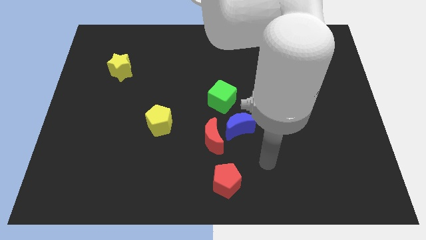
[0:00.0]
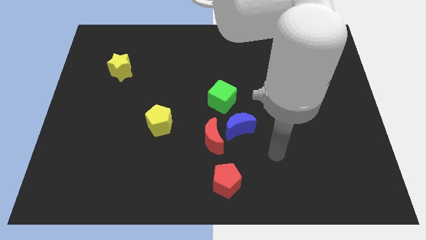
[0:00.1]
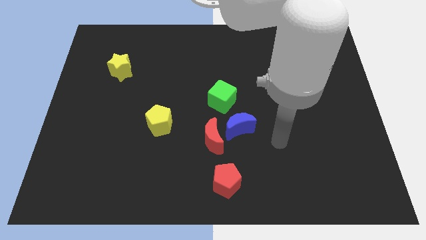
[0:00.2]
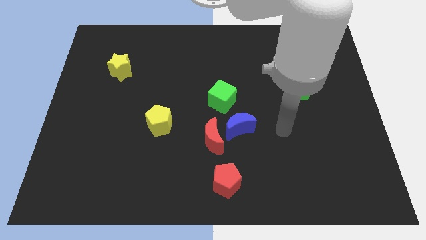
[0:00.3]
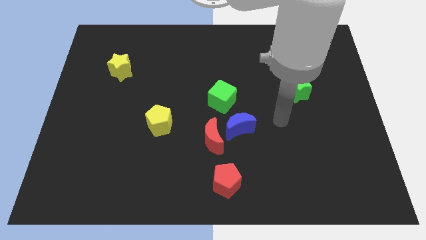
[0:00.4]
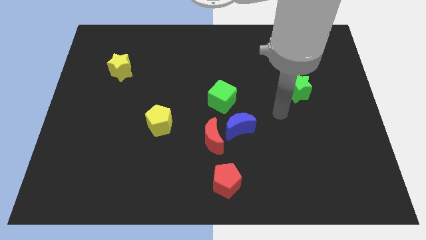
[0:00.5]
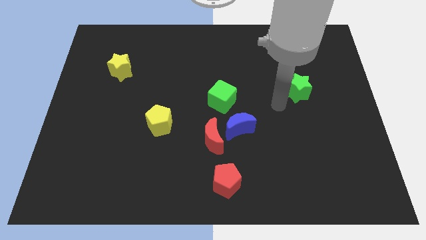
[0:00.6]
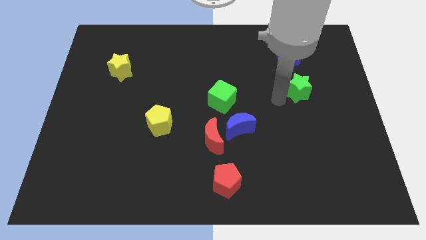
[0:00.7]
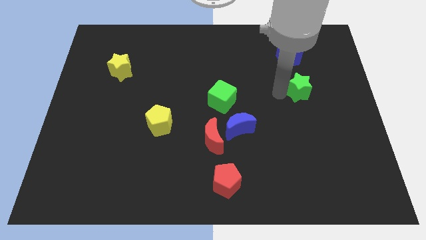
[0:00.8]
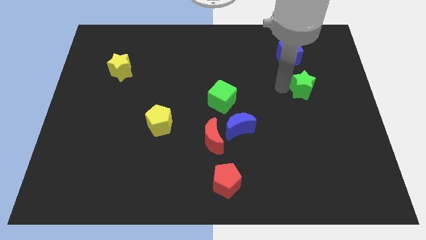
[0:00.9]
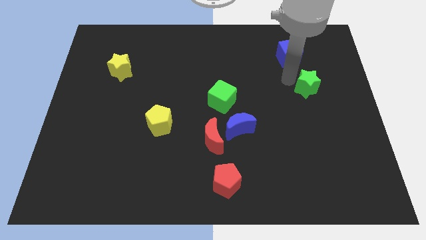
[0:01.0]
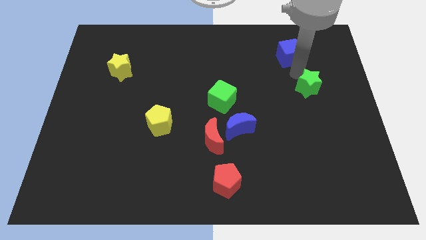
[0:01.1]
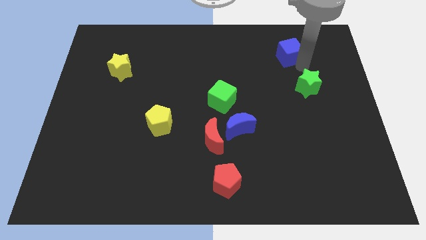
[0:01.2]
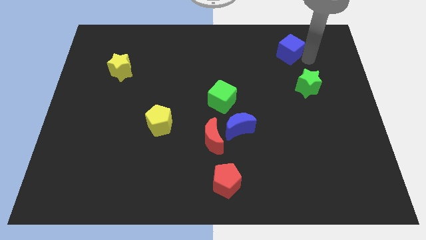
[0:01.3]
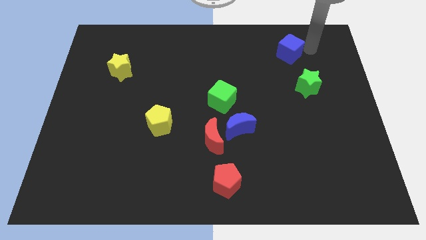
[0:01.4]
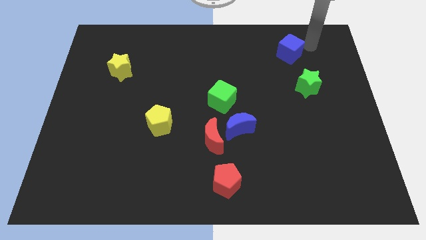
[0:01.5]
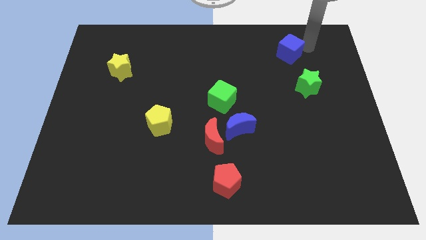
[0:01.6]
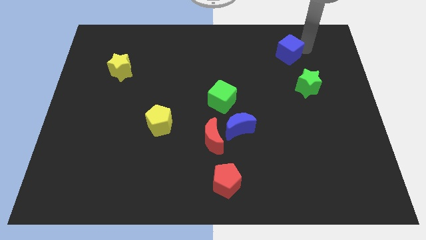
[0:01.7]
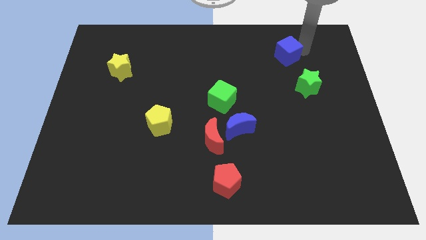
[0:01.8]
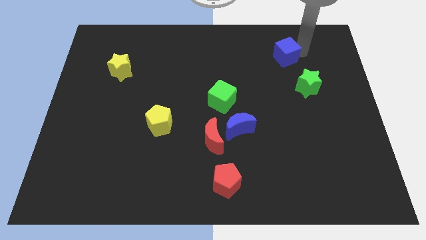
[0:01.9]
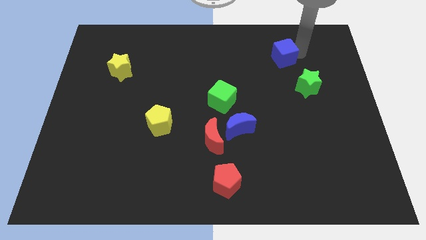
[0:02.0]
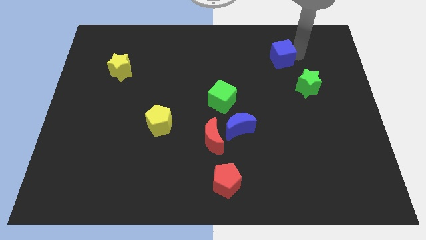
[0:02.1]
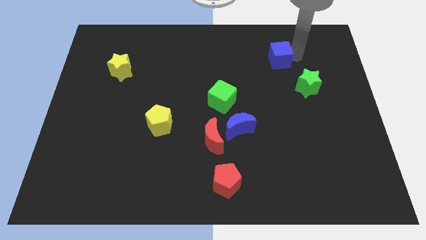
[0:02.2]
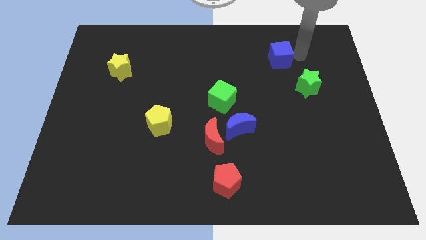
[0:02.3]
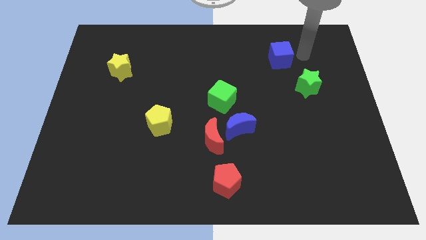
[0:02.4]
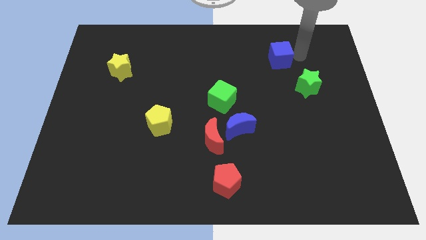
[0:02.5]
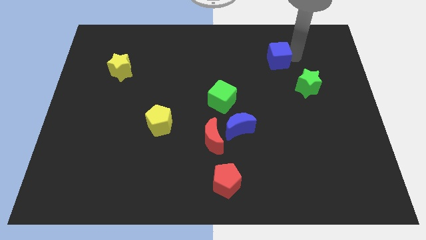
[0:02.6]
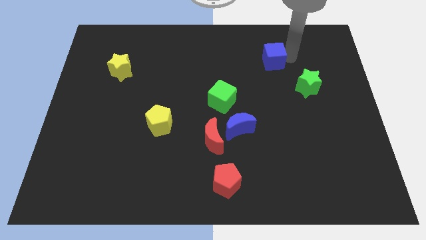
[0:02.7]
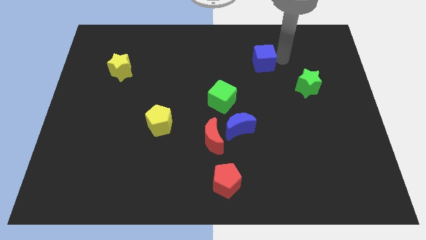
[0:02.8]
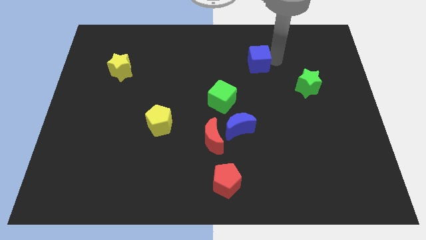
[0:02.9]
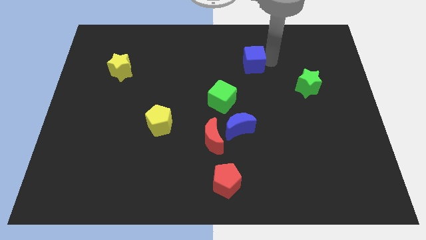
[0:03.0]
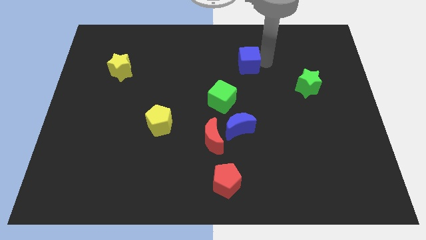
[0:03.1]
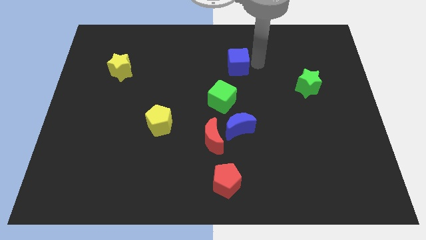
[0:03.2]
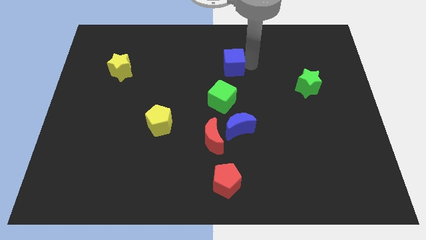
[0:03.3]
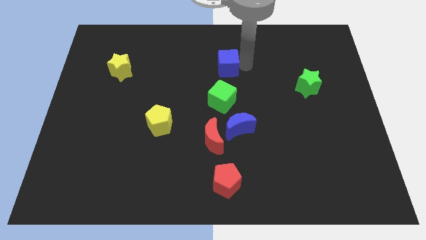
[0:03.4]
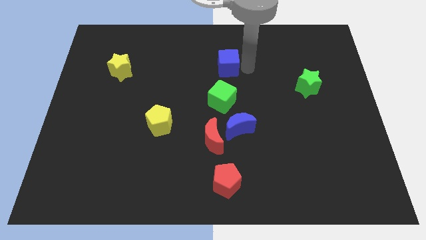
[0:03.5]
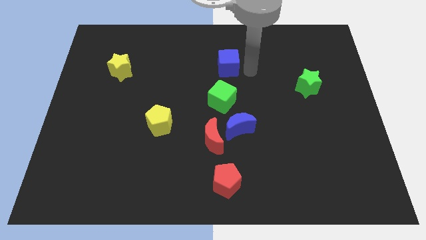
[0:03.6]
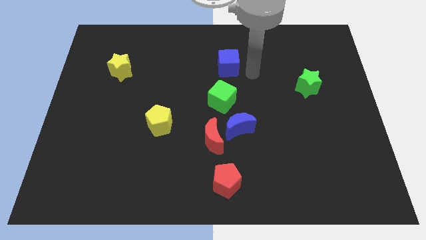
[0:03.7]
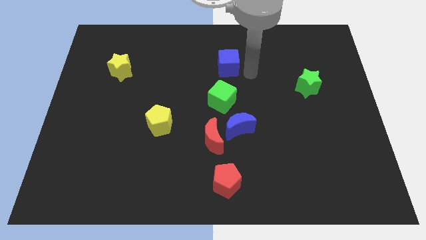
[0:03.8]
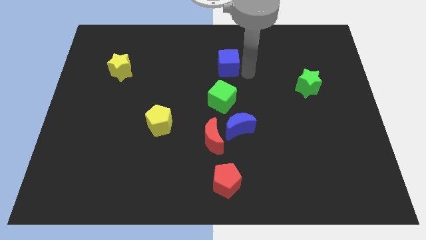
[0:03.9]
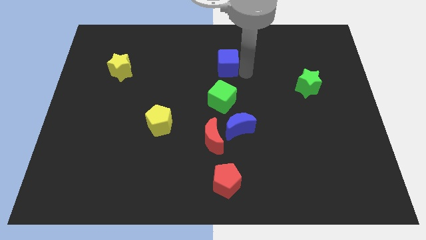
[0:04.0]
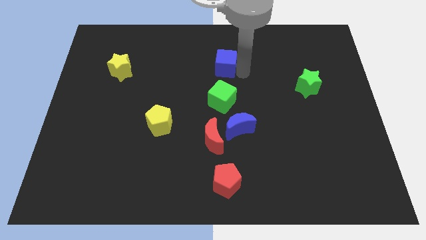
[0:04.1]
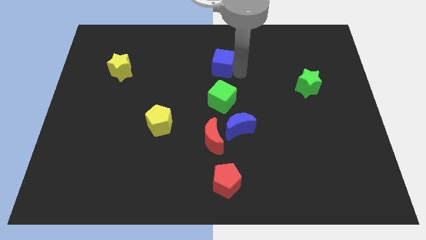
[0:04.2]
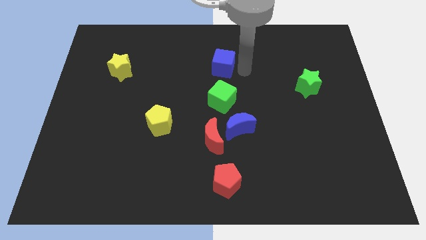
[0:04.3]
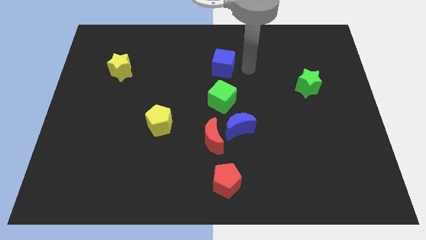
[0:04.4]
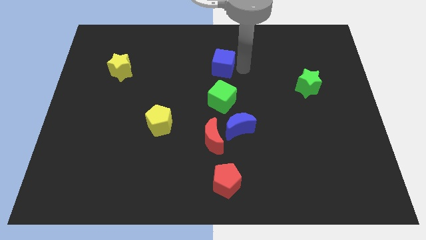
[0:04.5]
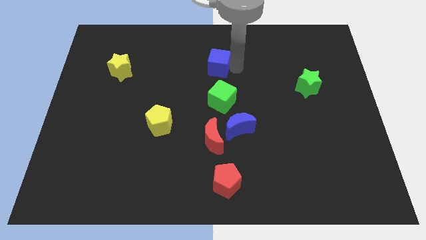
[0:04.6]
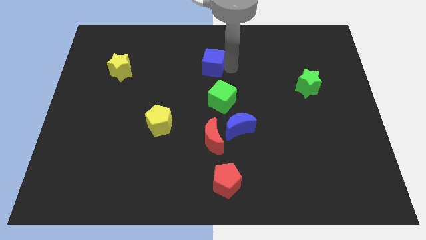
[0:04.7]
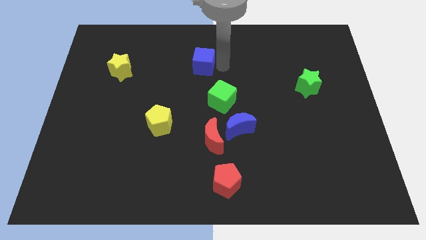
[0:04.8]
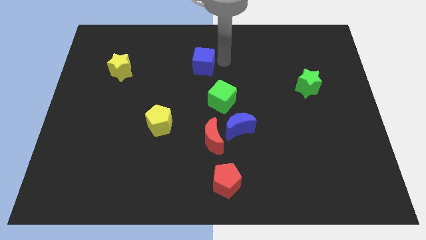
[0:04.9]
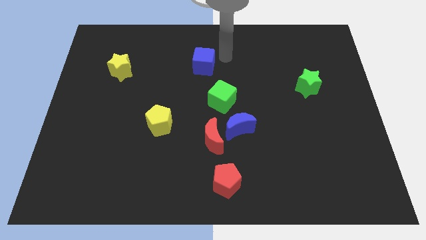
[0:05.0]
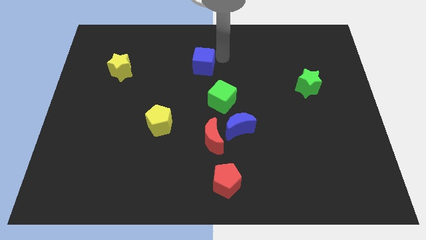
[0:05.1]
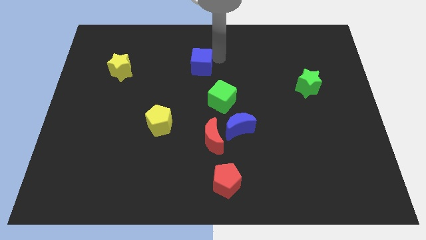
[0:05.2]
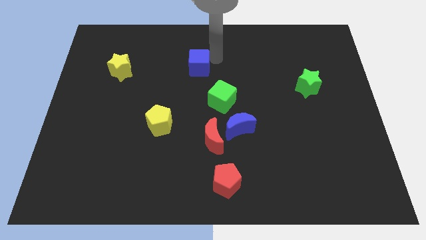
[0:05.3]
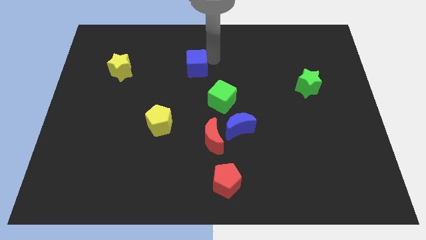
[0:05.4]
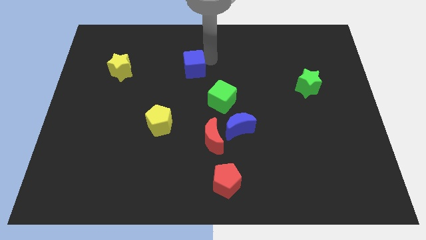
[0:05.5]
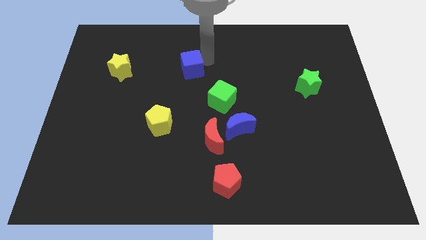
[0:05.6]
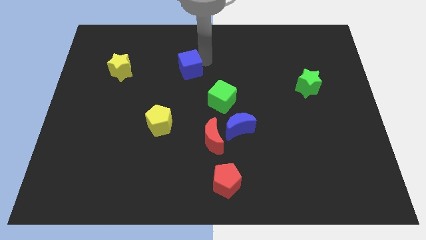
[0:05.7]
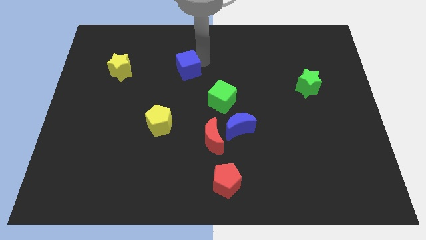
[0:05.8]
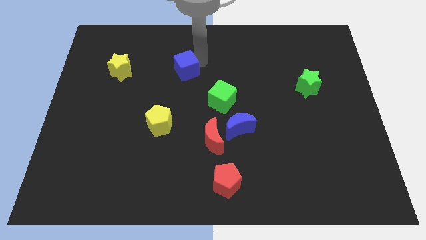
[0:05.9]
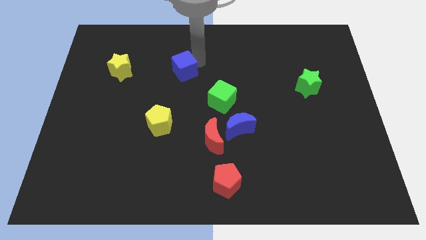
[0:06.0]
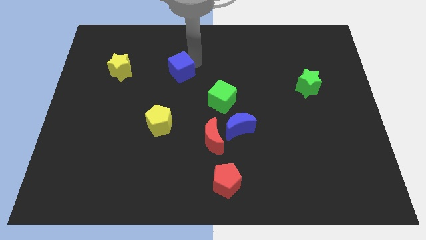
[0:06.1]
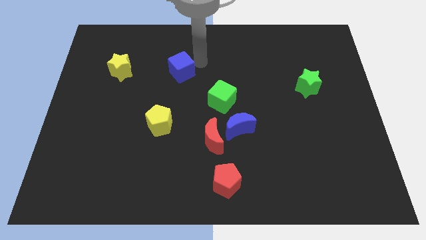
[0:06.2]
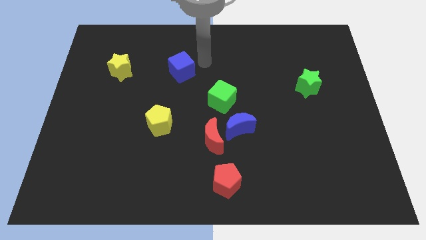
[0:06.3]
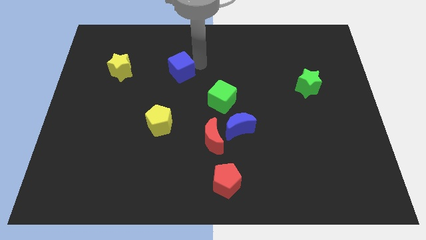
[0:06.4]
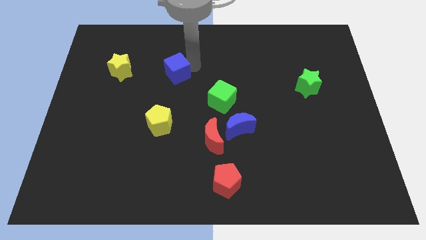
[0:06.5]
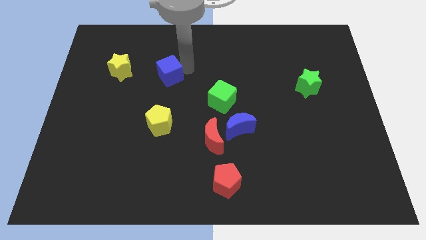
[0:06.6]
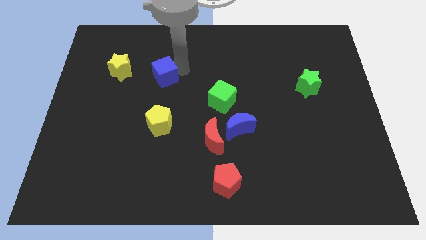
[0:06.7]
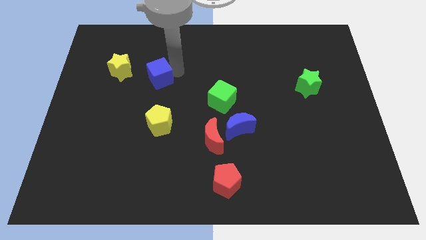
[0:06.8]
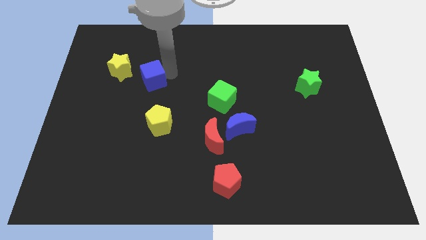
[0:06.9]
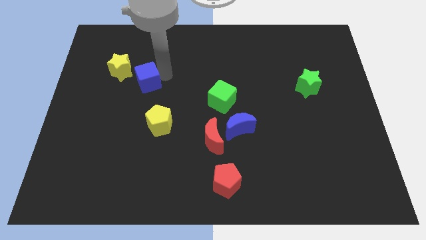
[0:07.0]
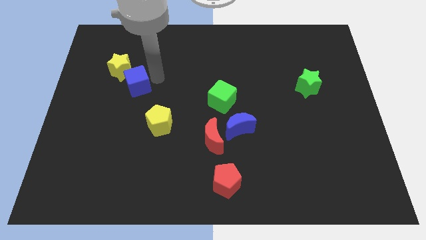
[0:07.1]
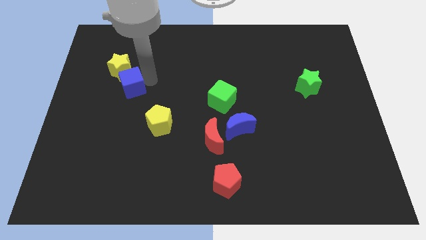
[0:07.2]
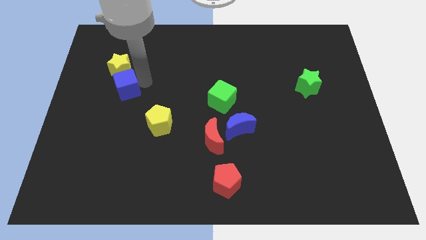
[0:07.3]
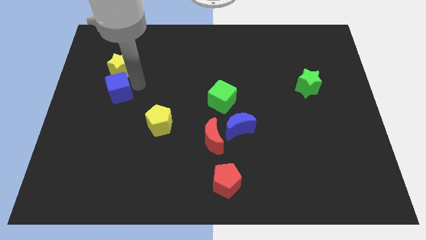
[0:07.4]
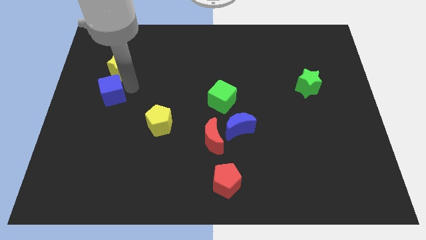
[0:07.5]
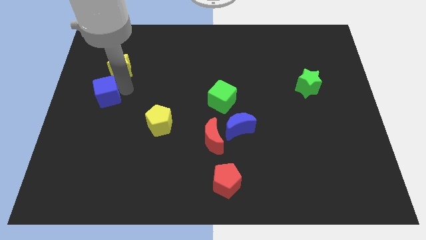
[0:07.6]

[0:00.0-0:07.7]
move the blue cube to the center left
